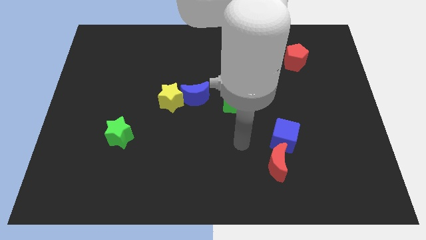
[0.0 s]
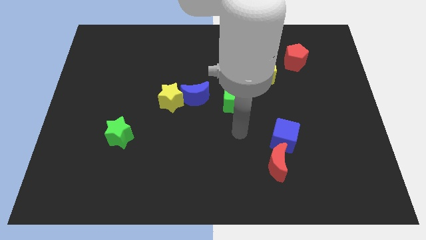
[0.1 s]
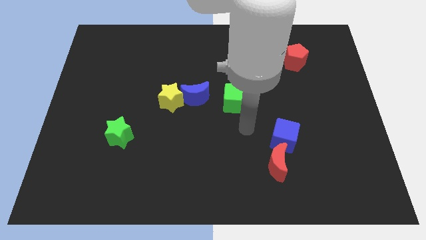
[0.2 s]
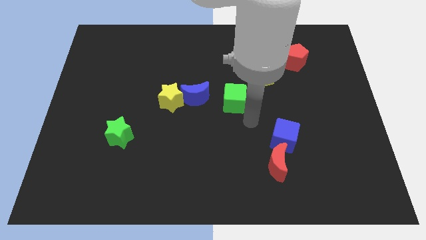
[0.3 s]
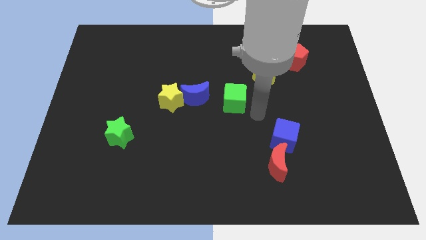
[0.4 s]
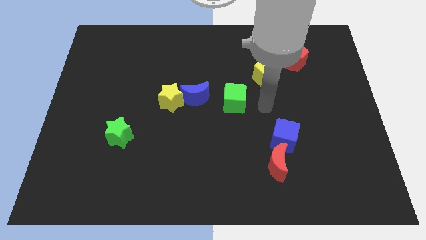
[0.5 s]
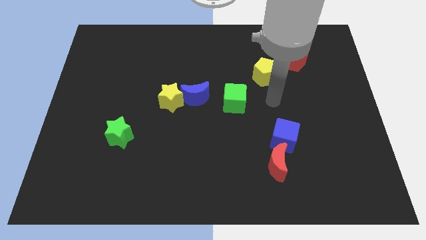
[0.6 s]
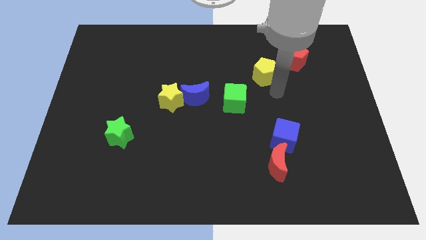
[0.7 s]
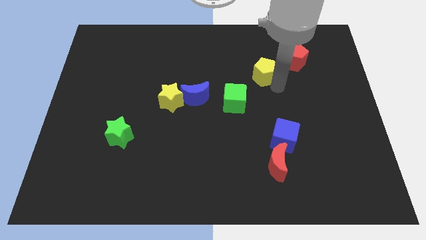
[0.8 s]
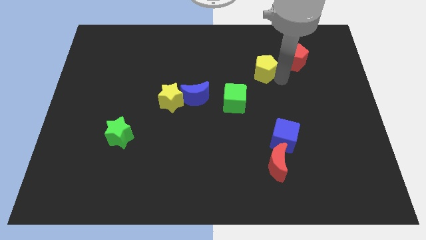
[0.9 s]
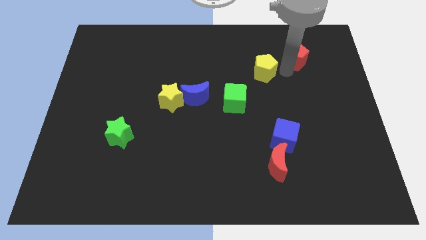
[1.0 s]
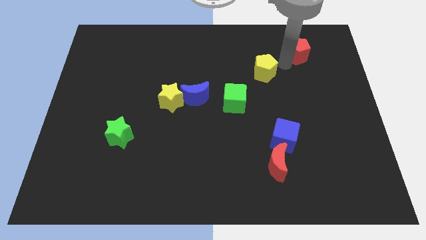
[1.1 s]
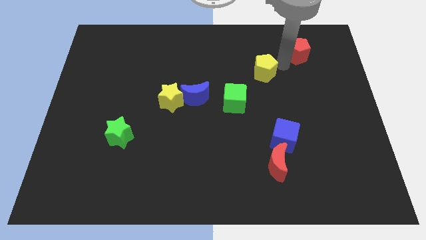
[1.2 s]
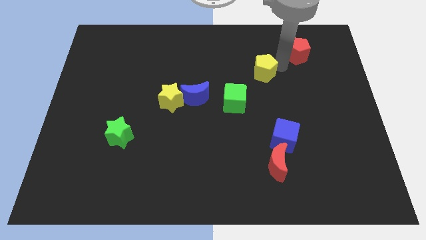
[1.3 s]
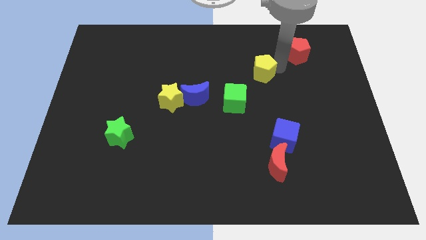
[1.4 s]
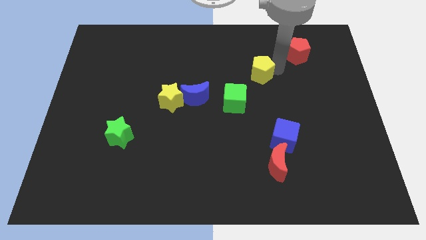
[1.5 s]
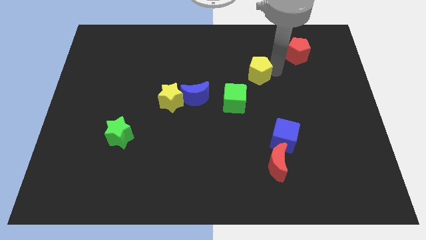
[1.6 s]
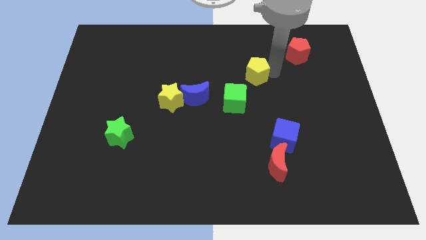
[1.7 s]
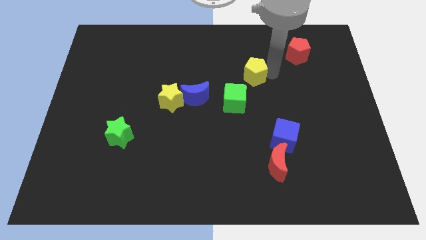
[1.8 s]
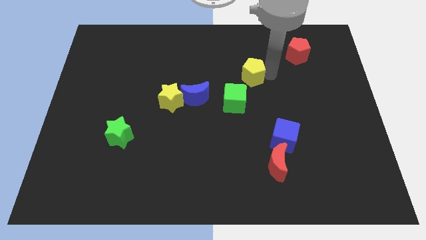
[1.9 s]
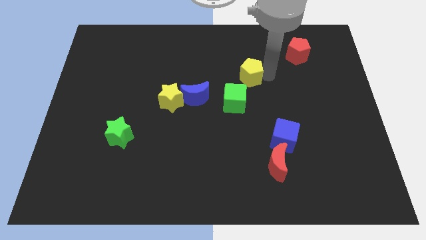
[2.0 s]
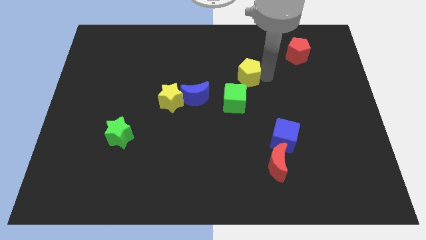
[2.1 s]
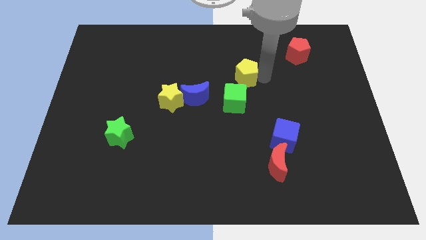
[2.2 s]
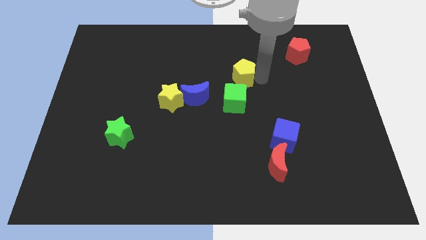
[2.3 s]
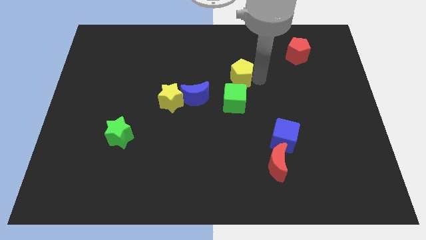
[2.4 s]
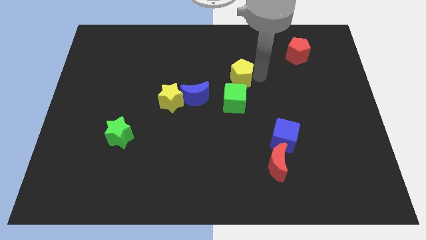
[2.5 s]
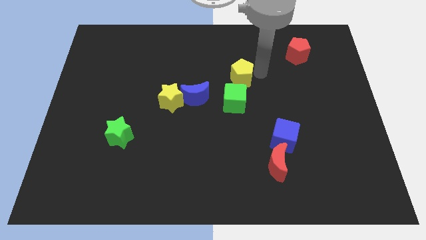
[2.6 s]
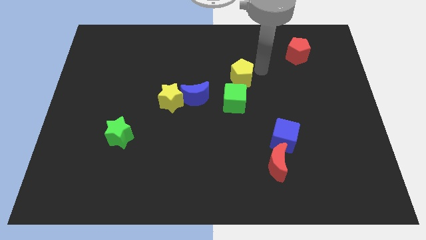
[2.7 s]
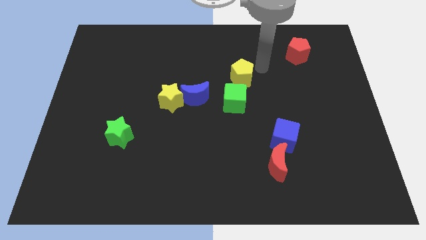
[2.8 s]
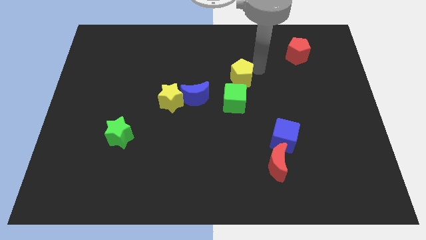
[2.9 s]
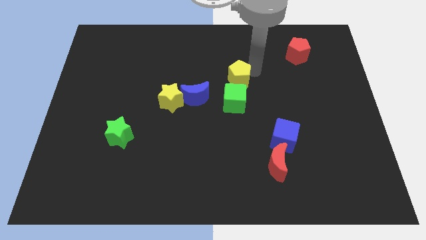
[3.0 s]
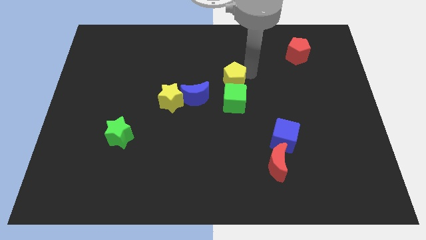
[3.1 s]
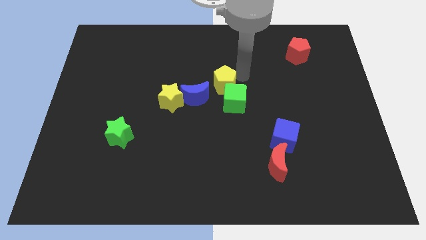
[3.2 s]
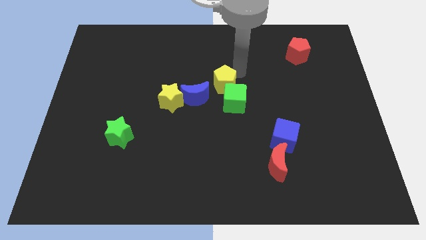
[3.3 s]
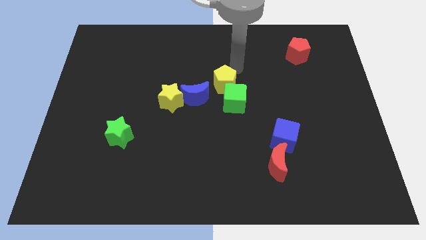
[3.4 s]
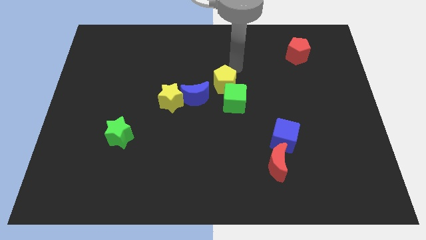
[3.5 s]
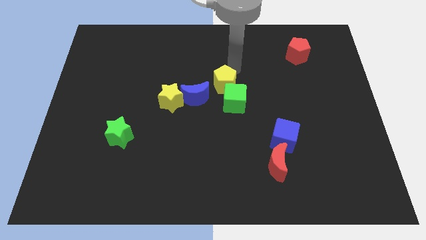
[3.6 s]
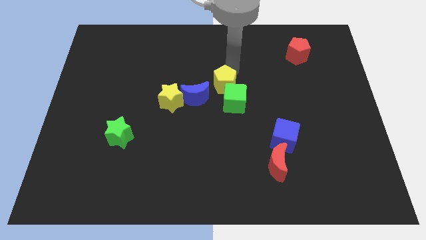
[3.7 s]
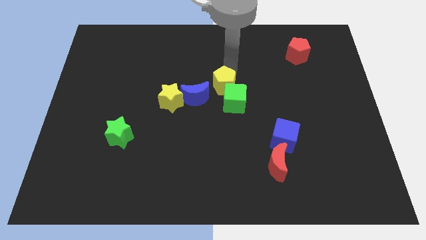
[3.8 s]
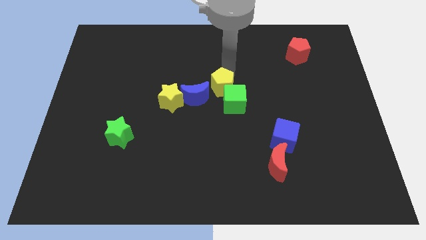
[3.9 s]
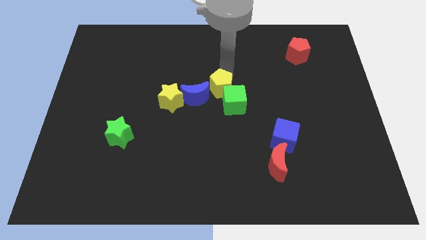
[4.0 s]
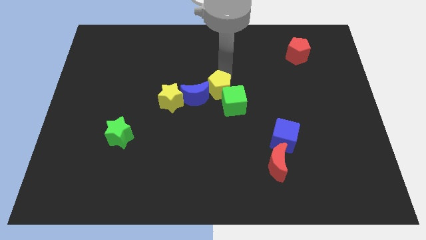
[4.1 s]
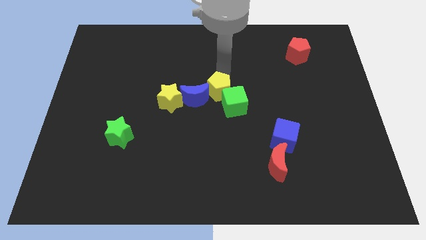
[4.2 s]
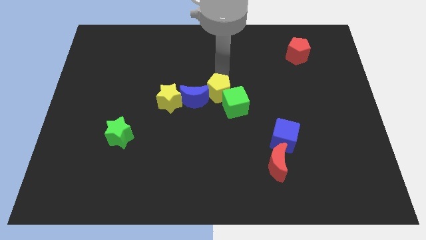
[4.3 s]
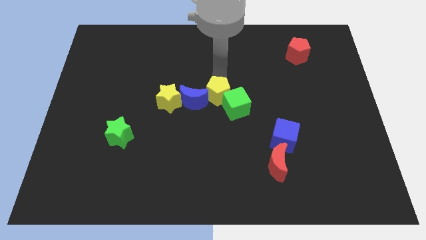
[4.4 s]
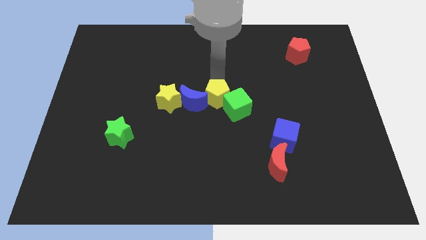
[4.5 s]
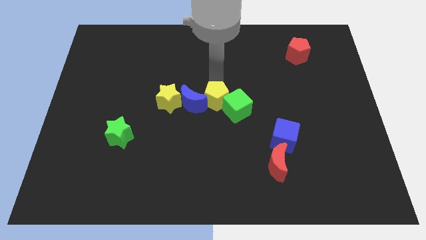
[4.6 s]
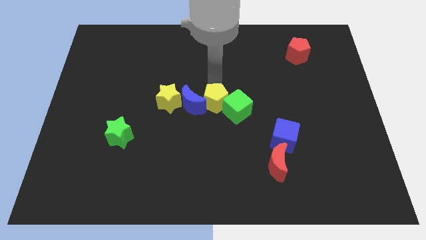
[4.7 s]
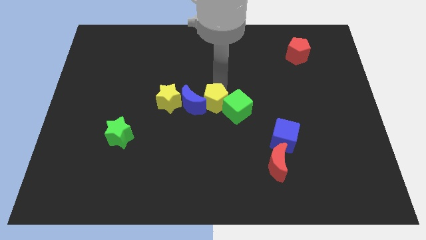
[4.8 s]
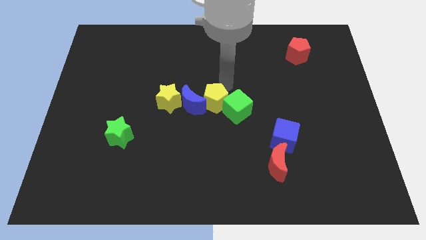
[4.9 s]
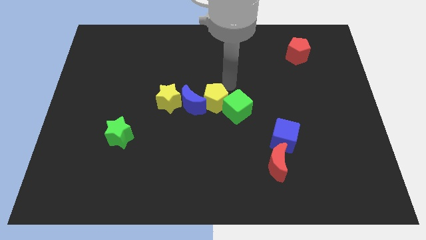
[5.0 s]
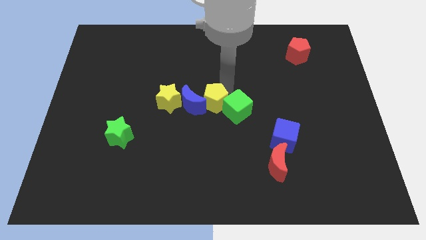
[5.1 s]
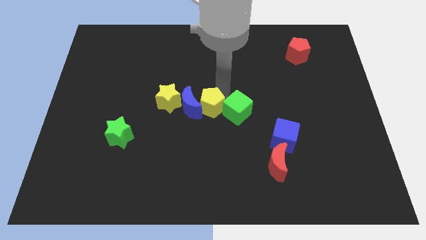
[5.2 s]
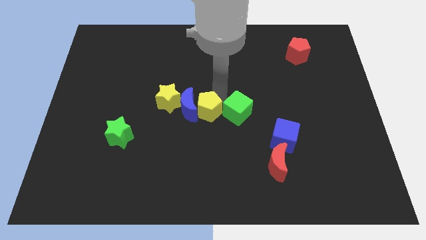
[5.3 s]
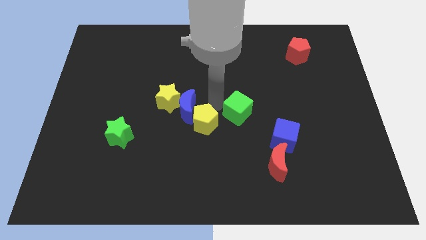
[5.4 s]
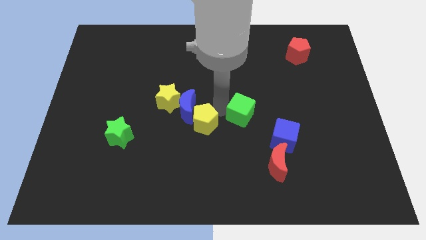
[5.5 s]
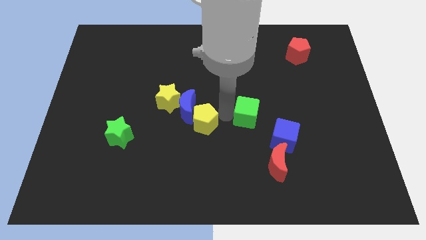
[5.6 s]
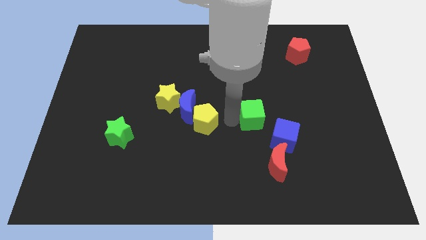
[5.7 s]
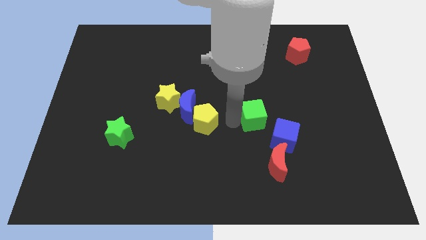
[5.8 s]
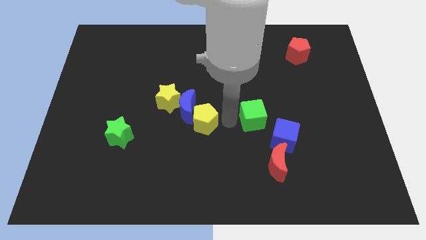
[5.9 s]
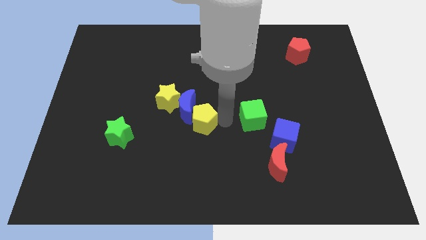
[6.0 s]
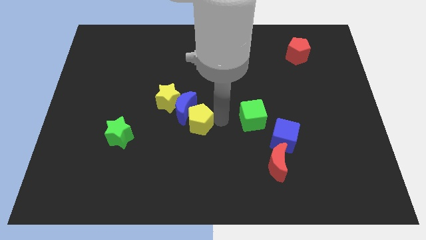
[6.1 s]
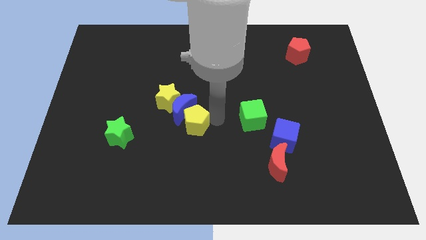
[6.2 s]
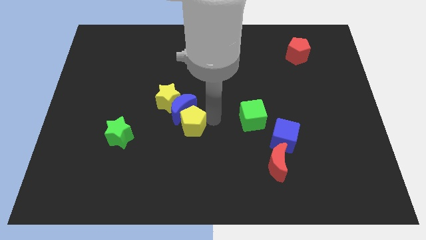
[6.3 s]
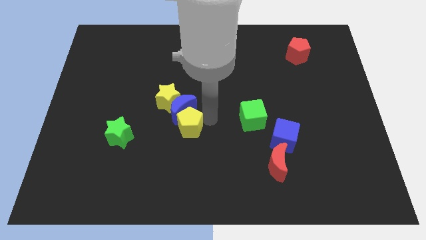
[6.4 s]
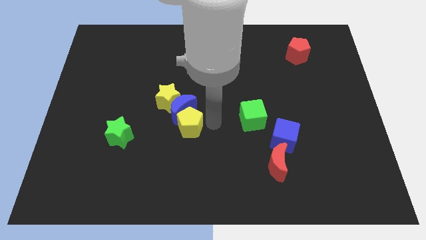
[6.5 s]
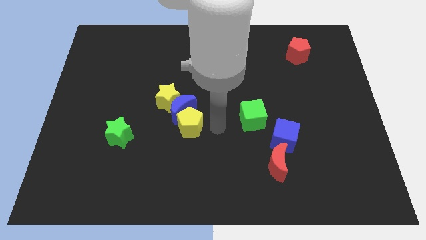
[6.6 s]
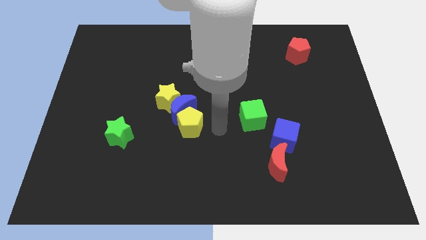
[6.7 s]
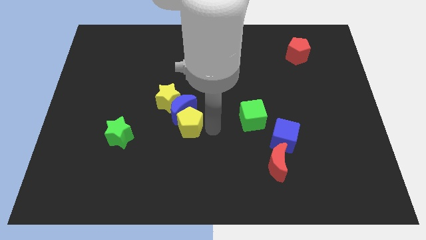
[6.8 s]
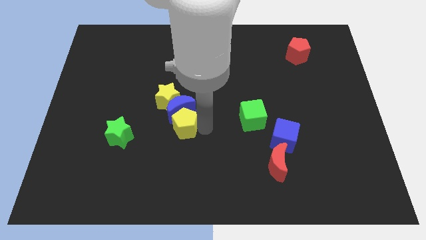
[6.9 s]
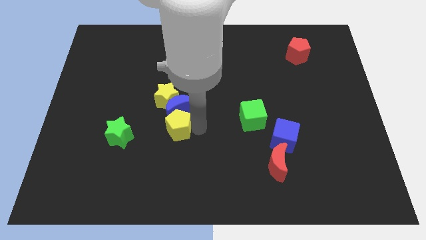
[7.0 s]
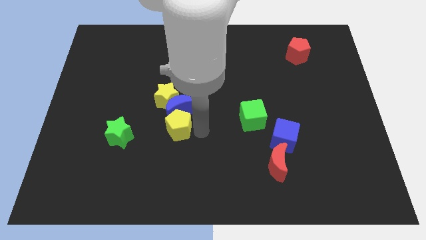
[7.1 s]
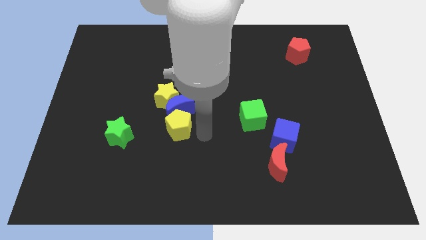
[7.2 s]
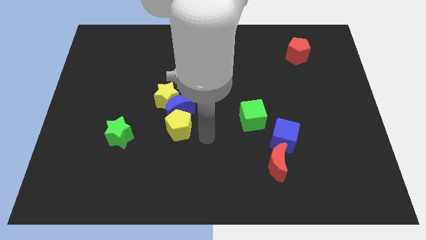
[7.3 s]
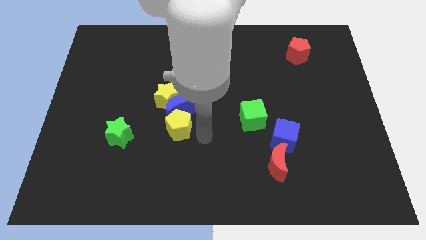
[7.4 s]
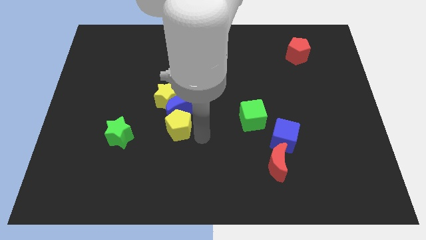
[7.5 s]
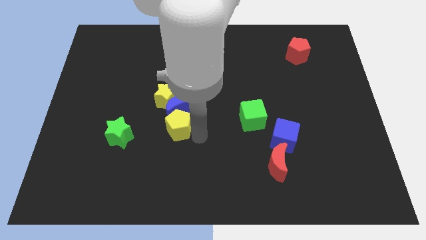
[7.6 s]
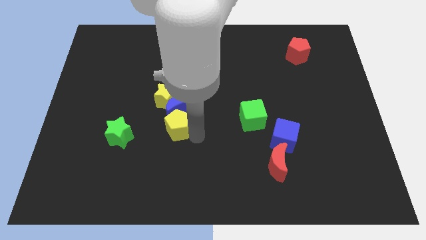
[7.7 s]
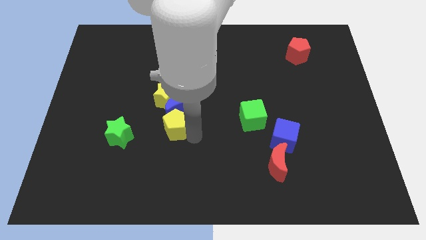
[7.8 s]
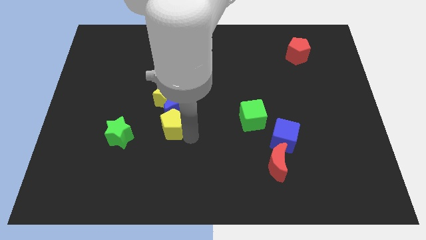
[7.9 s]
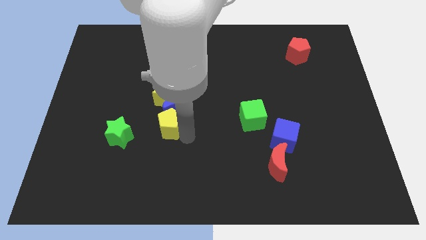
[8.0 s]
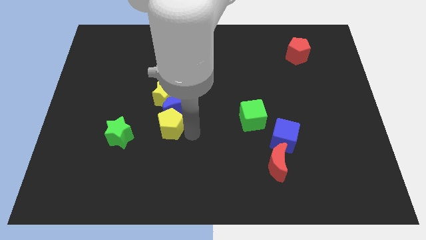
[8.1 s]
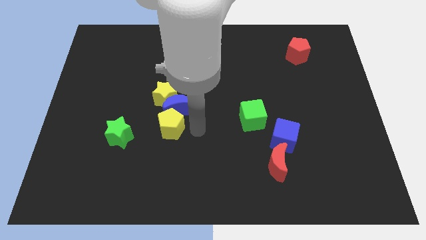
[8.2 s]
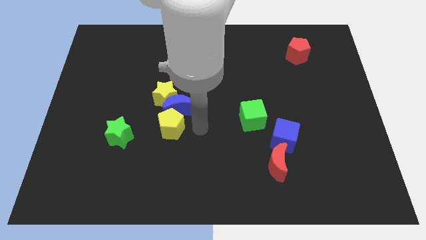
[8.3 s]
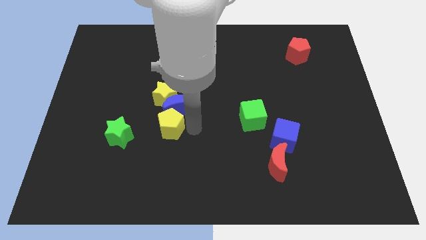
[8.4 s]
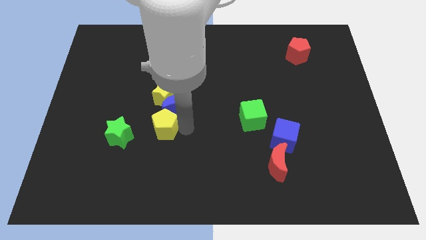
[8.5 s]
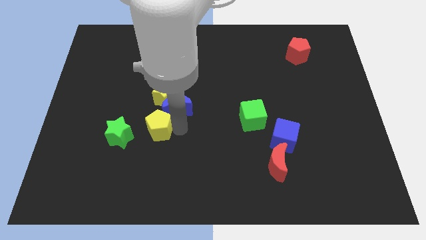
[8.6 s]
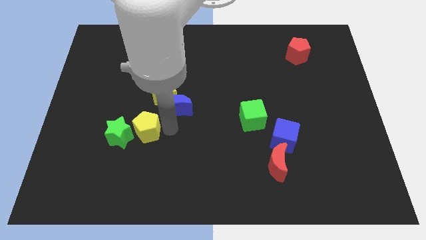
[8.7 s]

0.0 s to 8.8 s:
push the yellow pentagon towards the green star
